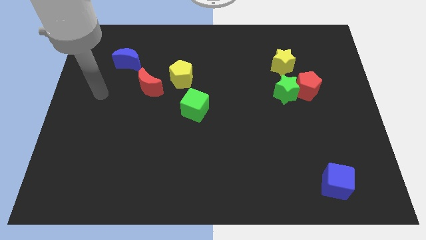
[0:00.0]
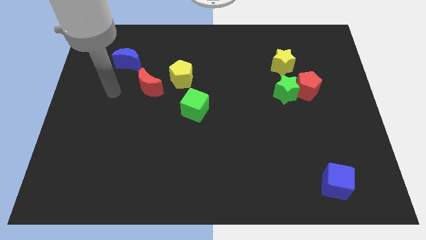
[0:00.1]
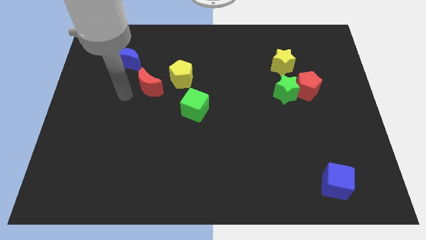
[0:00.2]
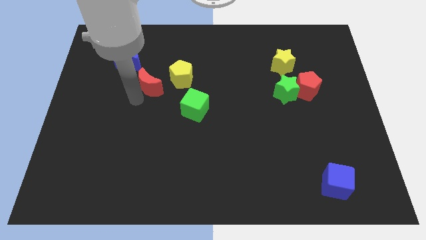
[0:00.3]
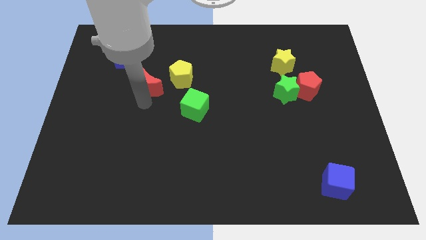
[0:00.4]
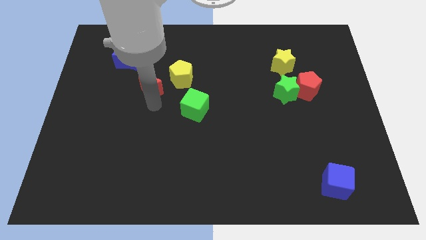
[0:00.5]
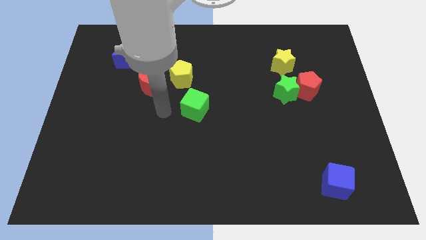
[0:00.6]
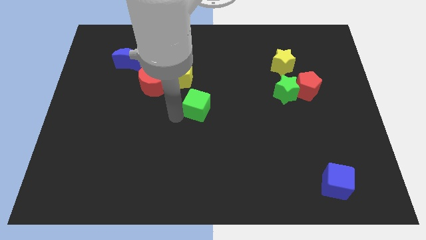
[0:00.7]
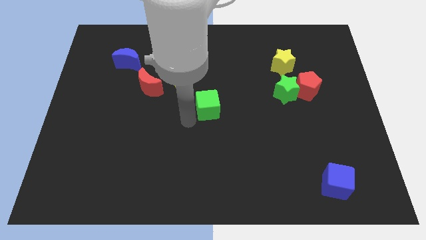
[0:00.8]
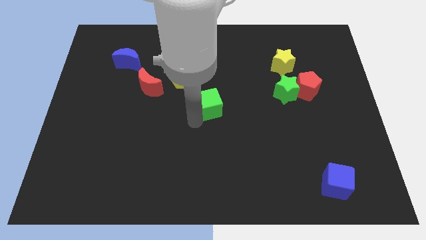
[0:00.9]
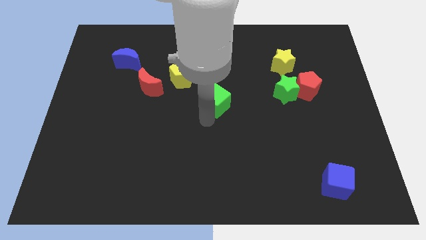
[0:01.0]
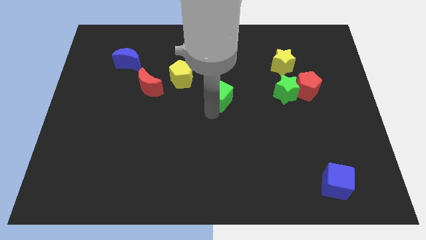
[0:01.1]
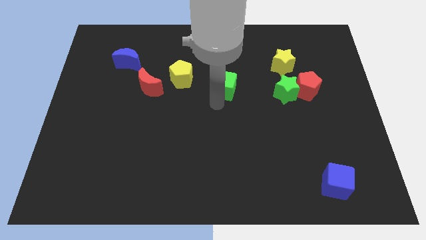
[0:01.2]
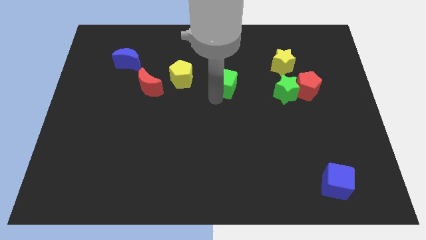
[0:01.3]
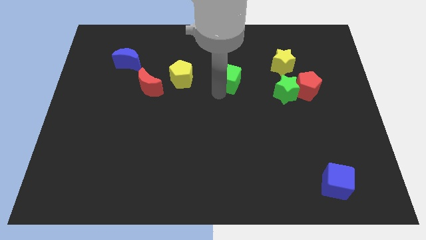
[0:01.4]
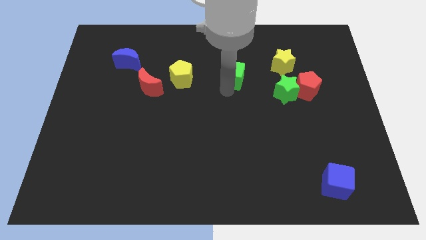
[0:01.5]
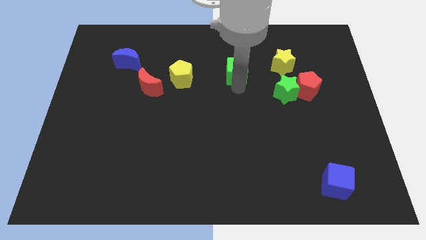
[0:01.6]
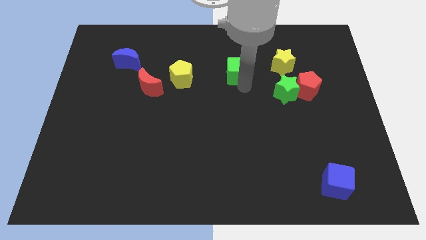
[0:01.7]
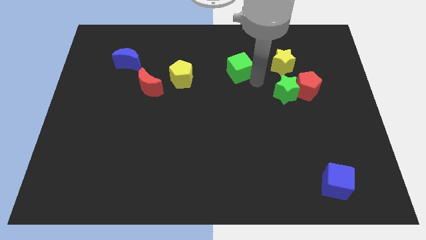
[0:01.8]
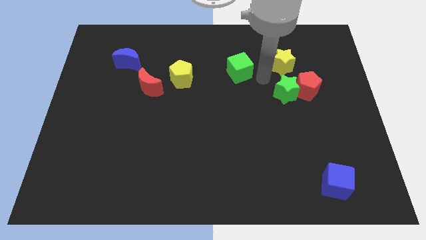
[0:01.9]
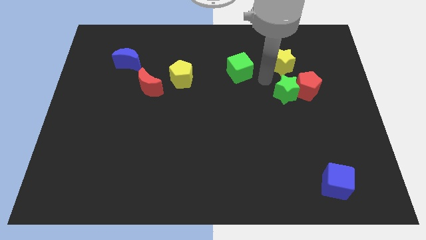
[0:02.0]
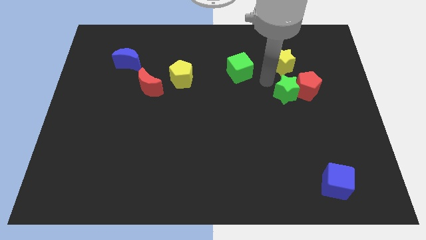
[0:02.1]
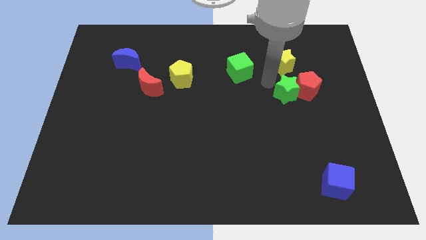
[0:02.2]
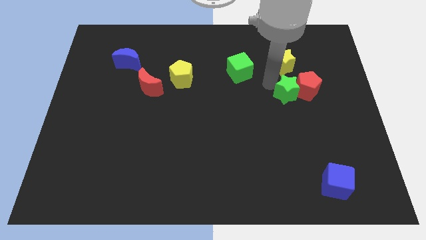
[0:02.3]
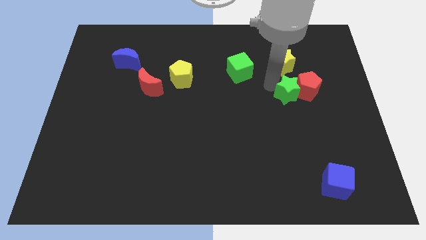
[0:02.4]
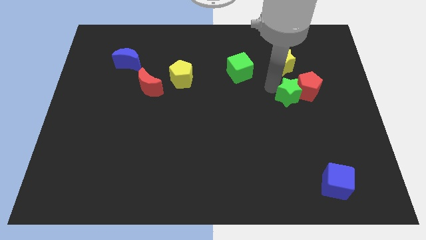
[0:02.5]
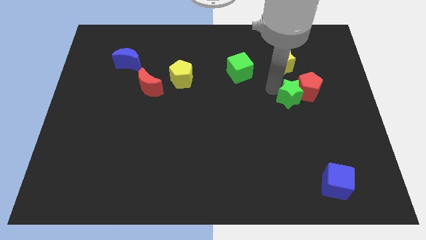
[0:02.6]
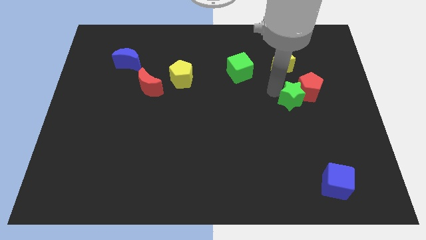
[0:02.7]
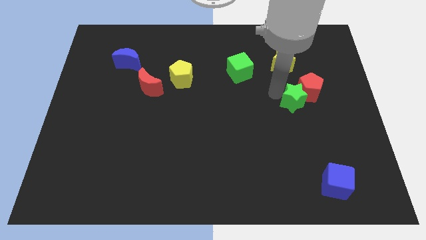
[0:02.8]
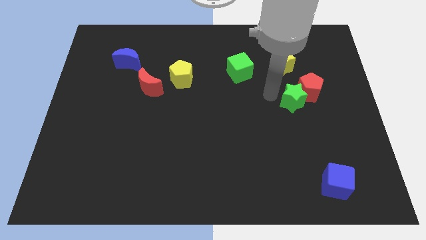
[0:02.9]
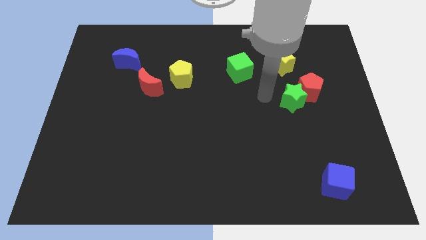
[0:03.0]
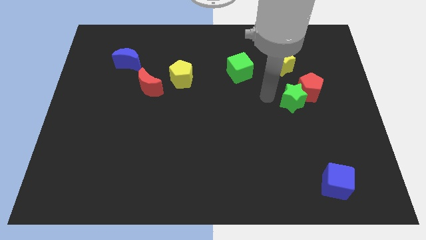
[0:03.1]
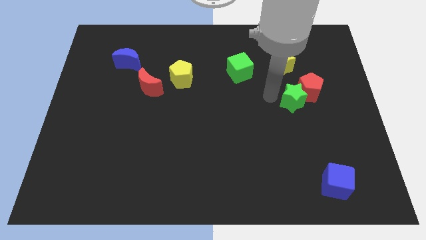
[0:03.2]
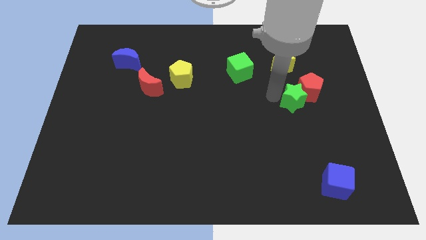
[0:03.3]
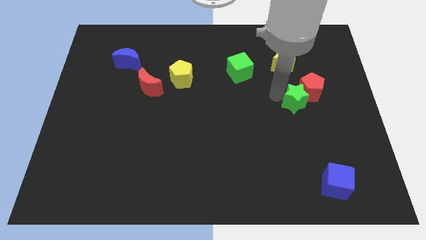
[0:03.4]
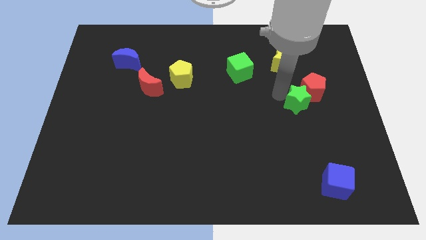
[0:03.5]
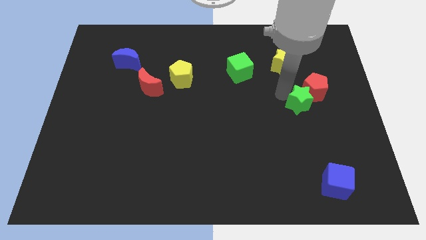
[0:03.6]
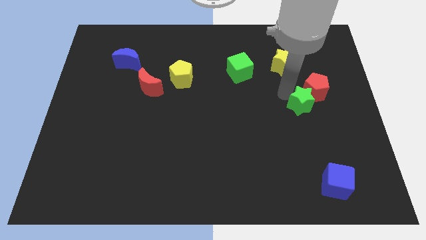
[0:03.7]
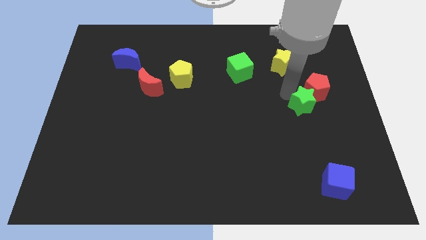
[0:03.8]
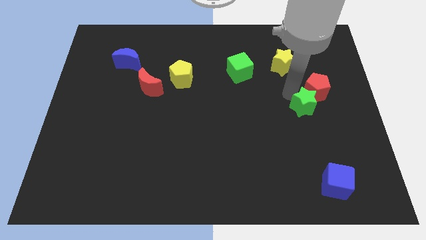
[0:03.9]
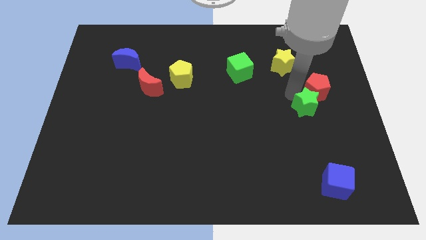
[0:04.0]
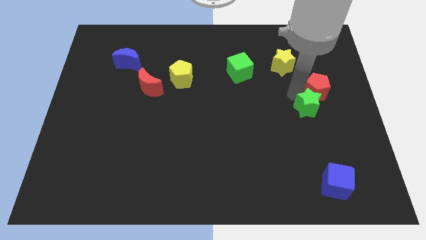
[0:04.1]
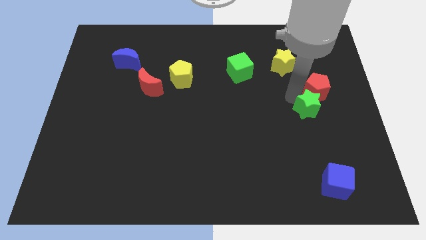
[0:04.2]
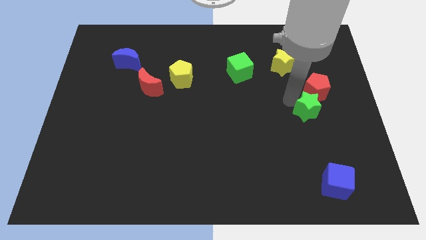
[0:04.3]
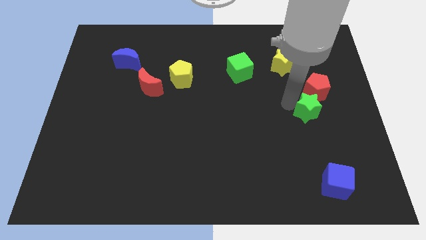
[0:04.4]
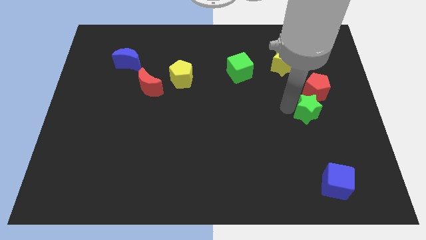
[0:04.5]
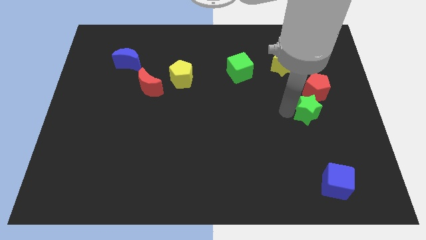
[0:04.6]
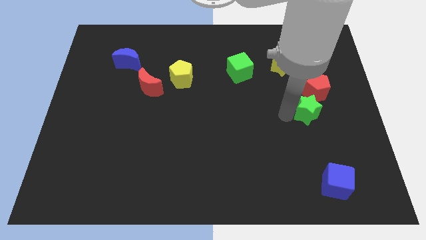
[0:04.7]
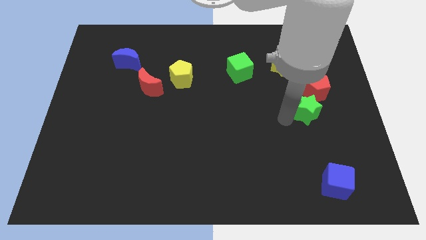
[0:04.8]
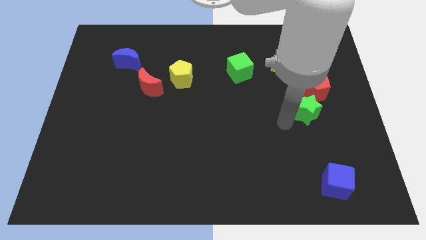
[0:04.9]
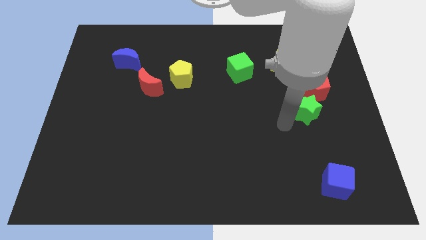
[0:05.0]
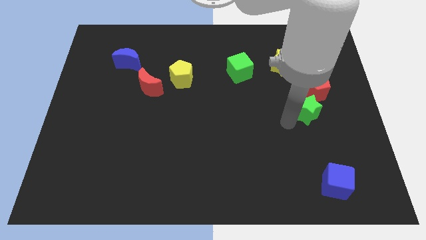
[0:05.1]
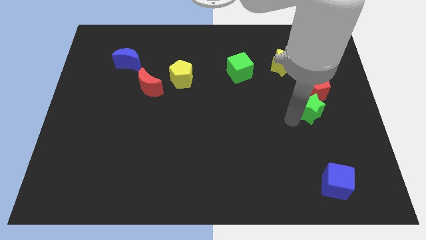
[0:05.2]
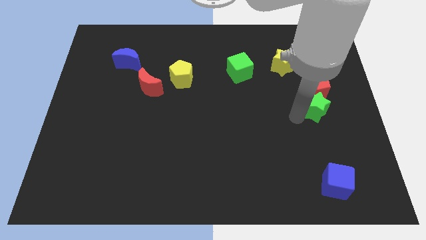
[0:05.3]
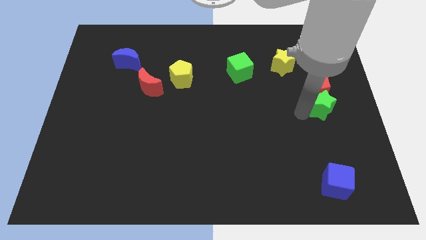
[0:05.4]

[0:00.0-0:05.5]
put the green star to the right side

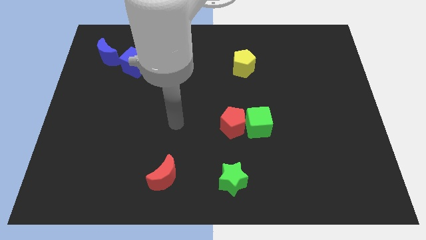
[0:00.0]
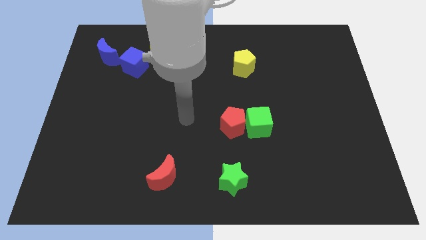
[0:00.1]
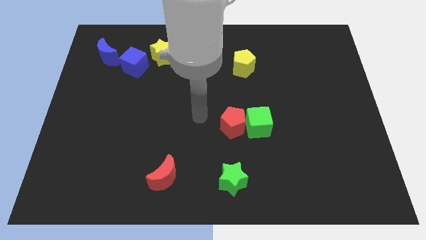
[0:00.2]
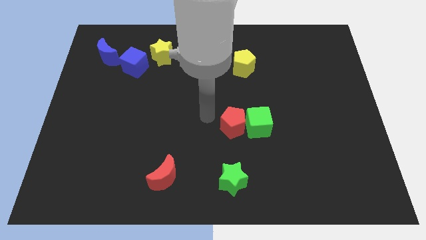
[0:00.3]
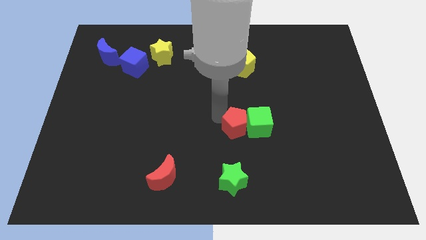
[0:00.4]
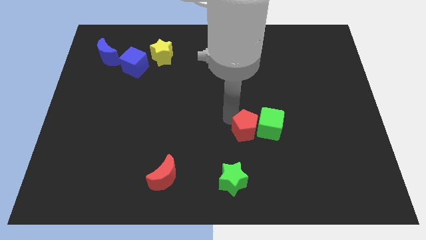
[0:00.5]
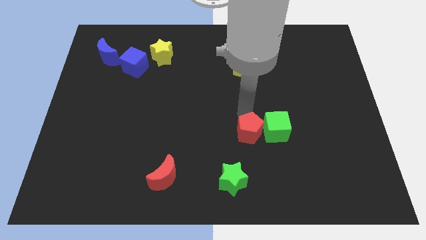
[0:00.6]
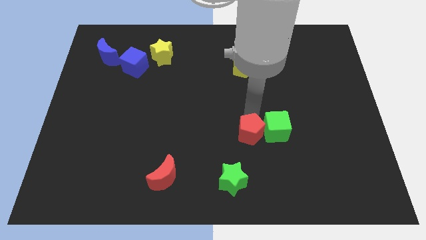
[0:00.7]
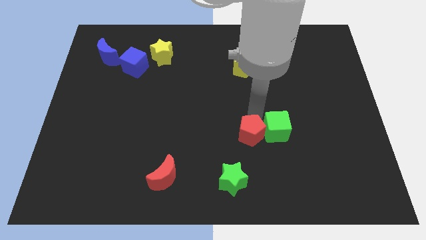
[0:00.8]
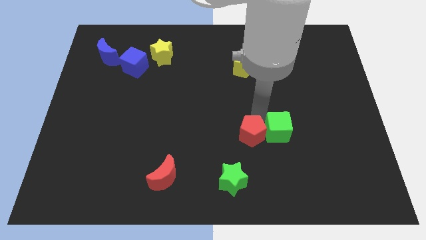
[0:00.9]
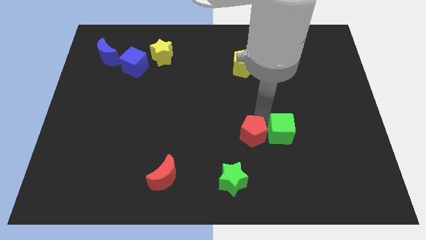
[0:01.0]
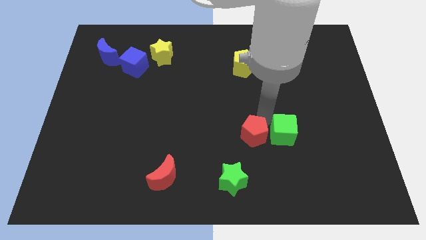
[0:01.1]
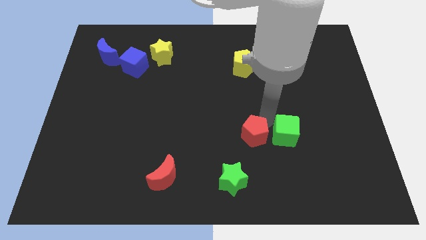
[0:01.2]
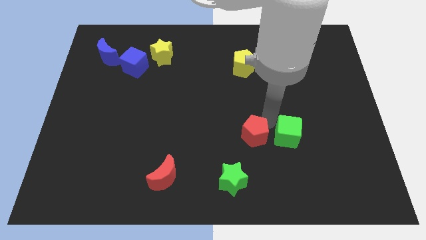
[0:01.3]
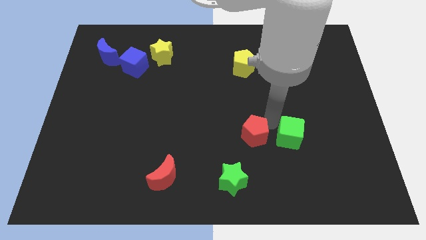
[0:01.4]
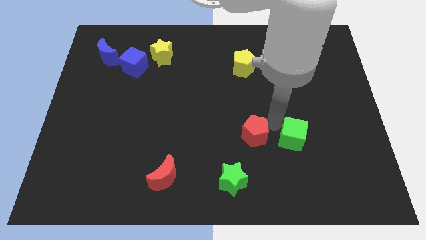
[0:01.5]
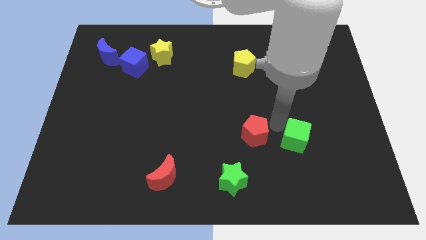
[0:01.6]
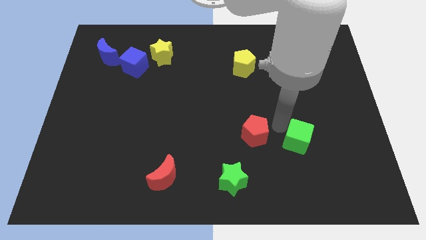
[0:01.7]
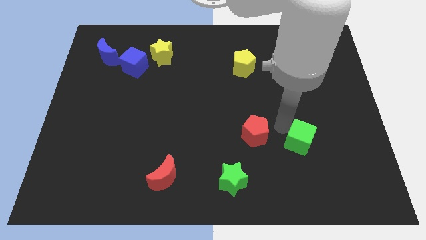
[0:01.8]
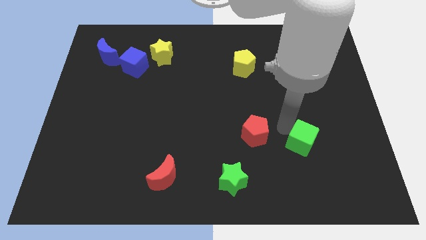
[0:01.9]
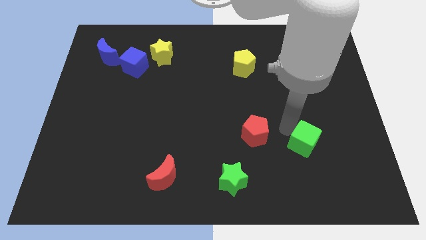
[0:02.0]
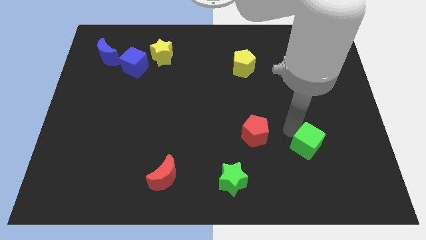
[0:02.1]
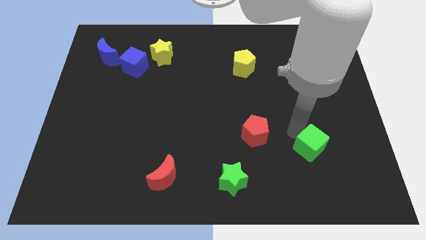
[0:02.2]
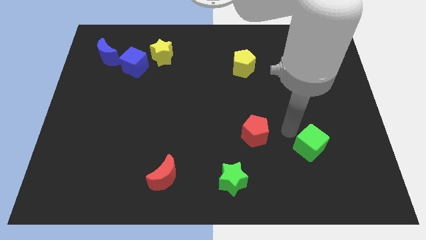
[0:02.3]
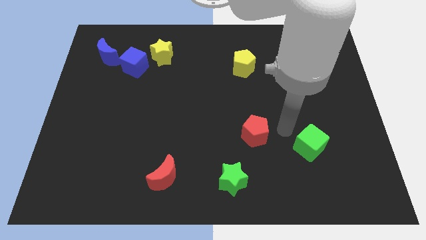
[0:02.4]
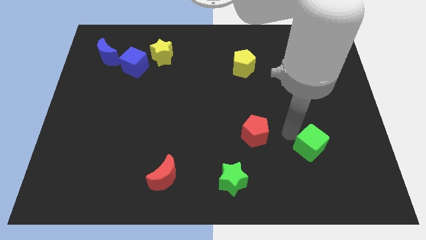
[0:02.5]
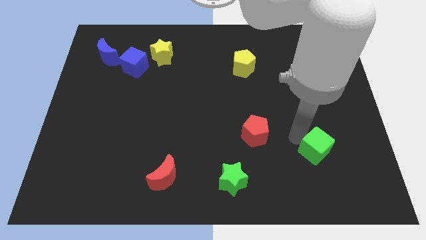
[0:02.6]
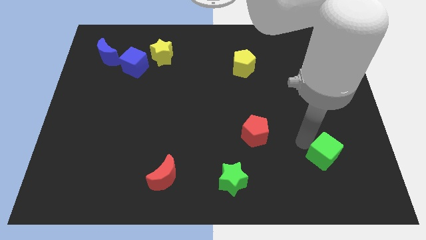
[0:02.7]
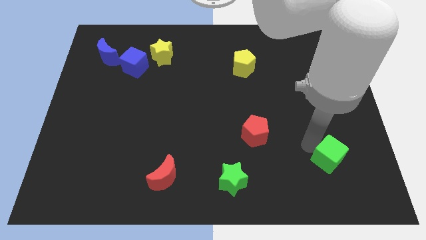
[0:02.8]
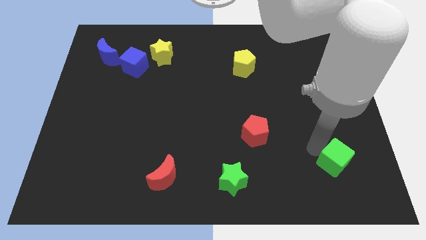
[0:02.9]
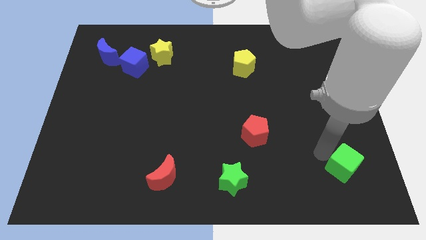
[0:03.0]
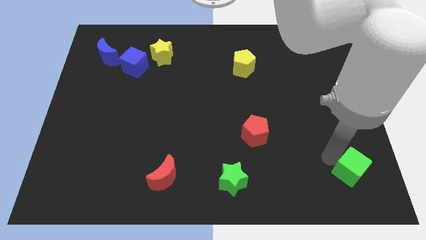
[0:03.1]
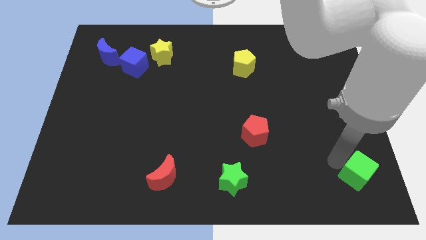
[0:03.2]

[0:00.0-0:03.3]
put the green cube to the bottom right of the board
